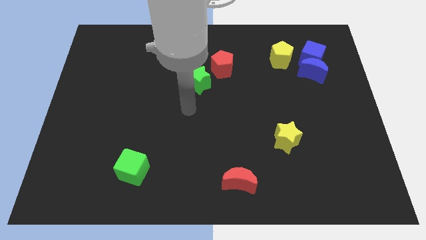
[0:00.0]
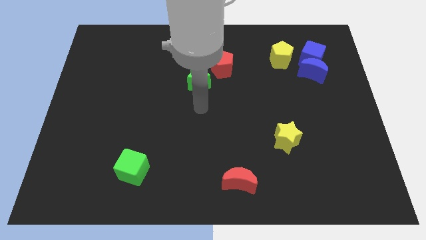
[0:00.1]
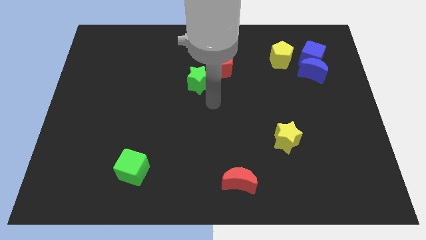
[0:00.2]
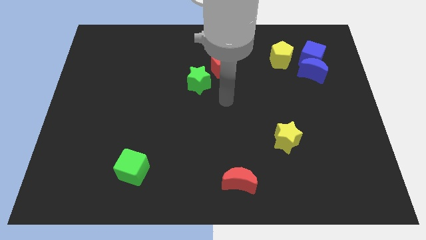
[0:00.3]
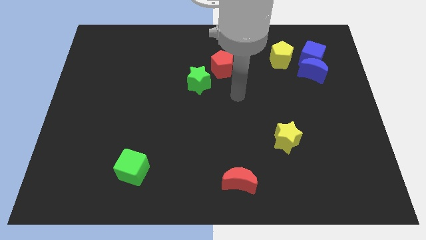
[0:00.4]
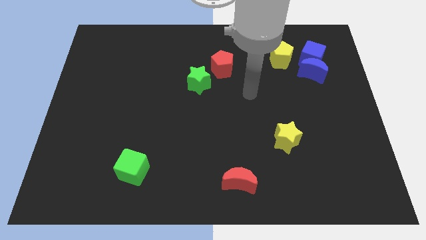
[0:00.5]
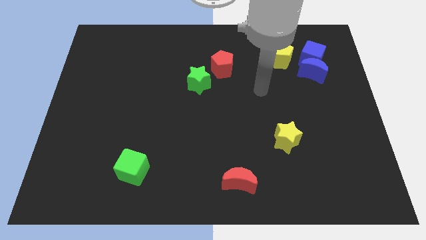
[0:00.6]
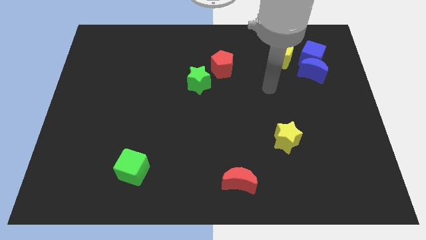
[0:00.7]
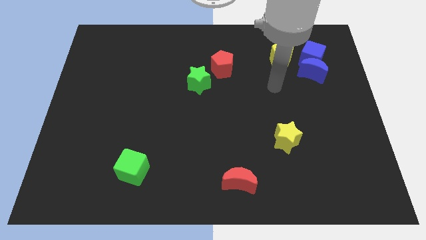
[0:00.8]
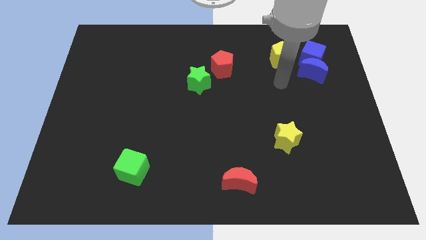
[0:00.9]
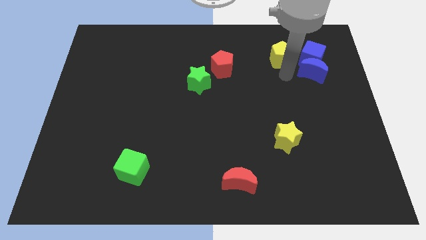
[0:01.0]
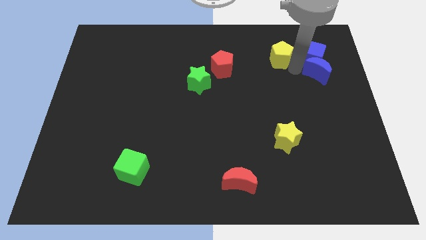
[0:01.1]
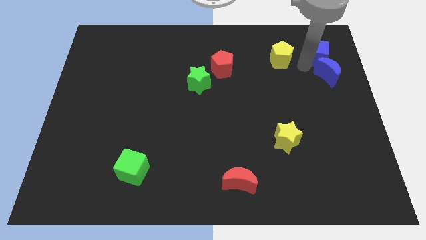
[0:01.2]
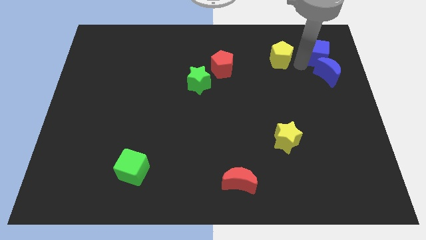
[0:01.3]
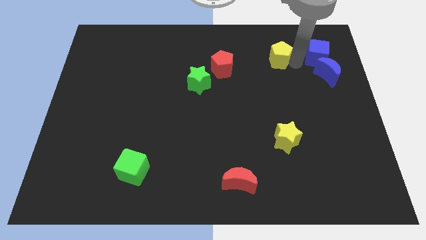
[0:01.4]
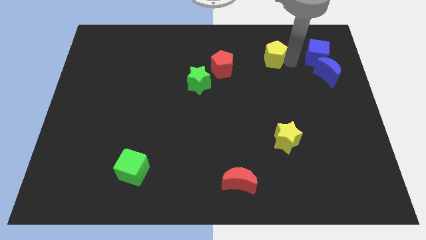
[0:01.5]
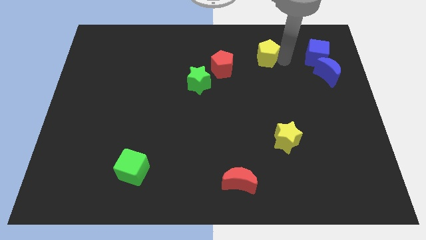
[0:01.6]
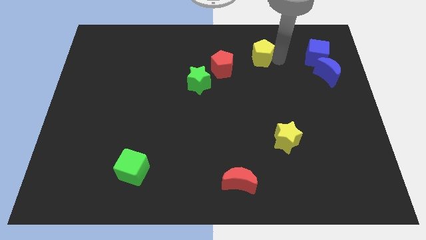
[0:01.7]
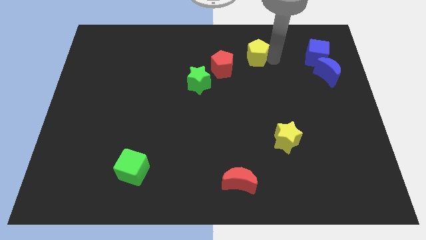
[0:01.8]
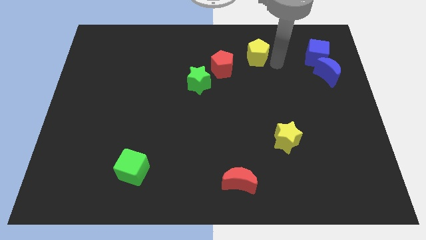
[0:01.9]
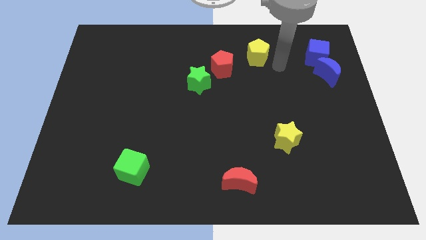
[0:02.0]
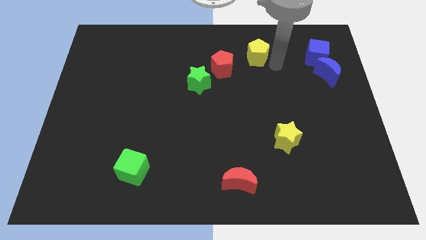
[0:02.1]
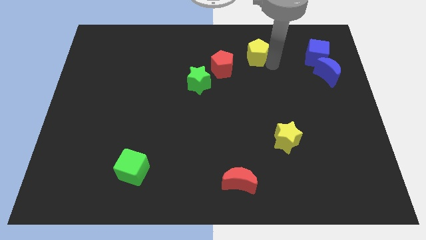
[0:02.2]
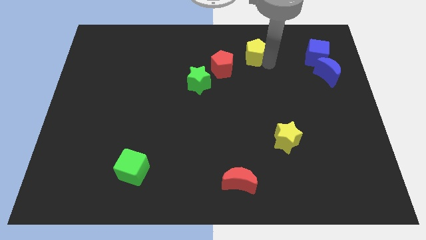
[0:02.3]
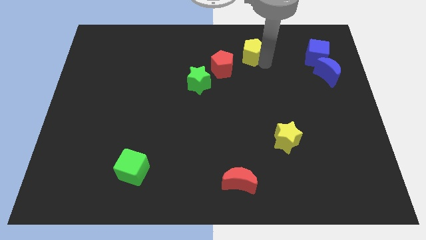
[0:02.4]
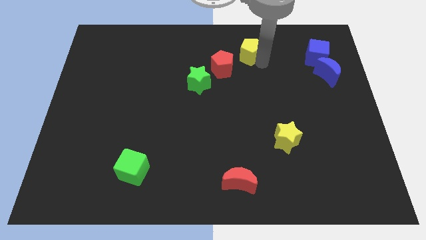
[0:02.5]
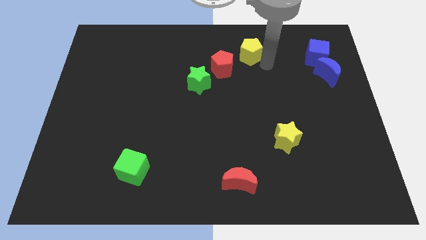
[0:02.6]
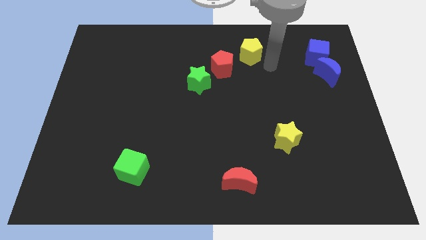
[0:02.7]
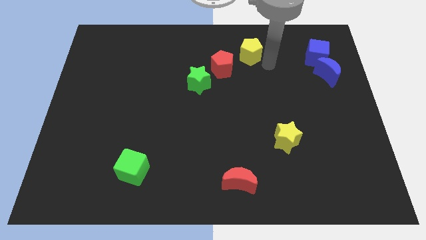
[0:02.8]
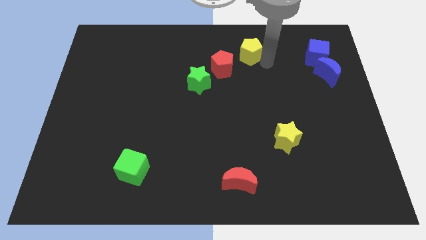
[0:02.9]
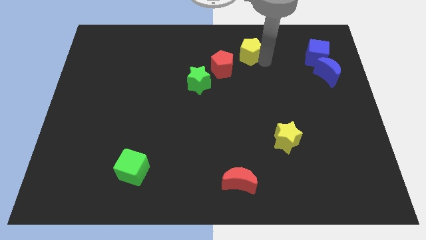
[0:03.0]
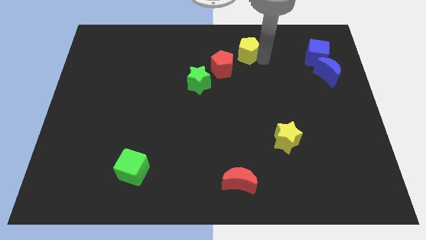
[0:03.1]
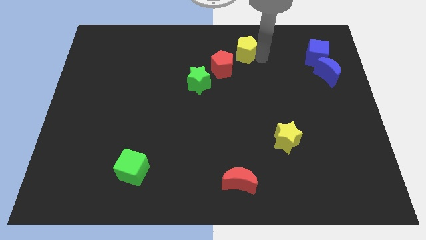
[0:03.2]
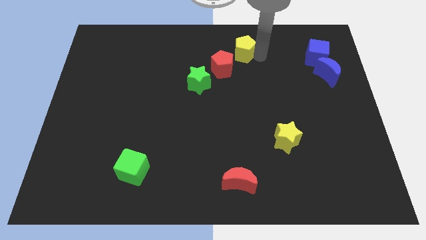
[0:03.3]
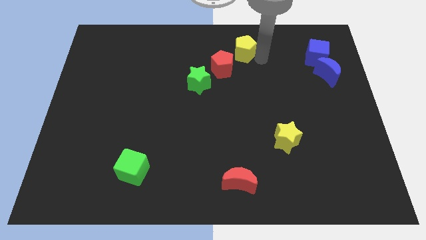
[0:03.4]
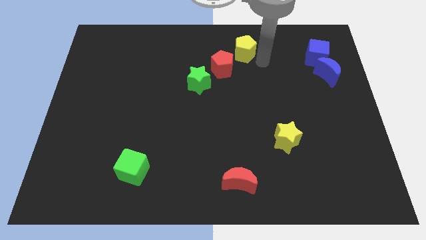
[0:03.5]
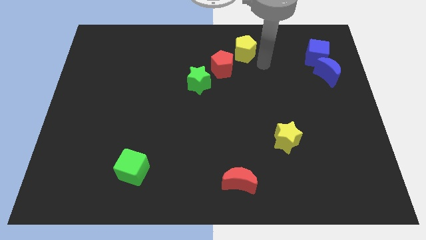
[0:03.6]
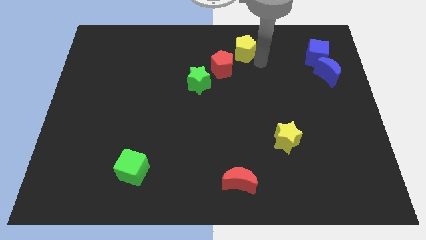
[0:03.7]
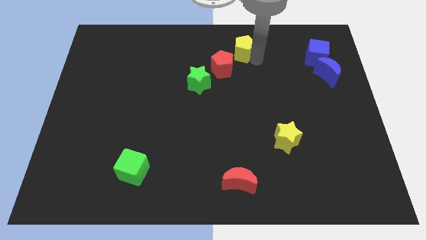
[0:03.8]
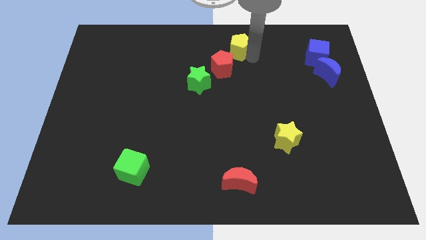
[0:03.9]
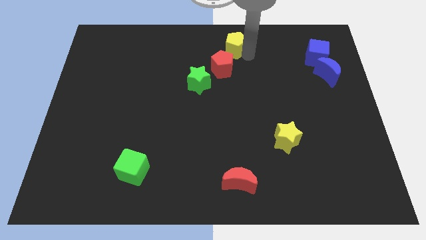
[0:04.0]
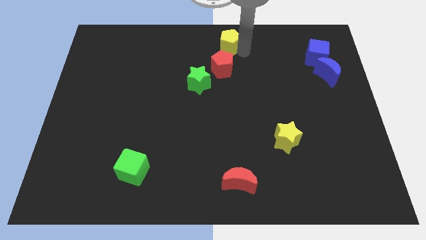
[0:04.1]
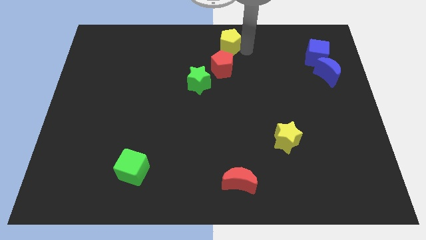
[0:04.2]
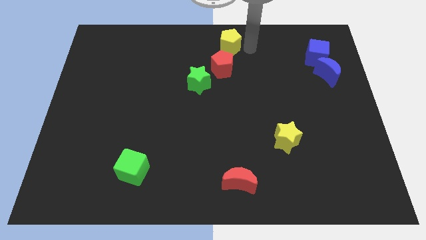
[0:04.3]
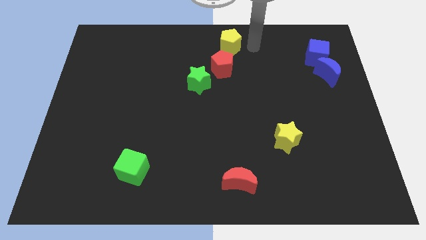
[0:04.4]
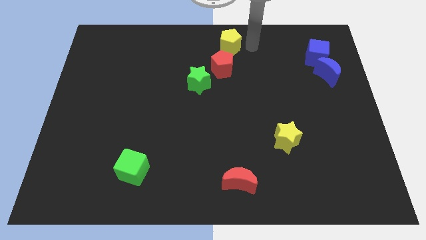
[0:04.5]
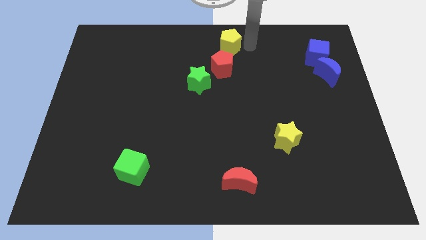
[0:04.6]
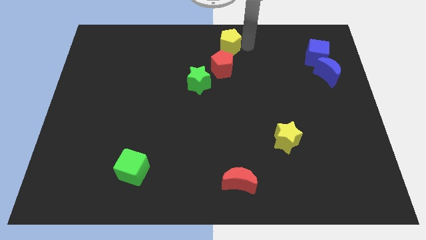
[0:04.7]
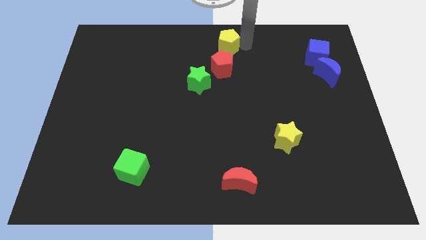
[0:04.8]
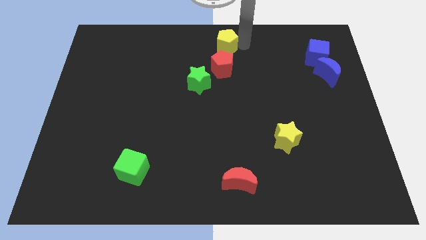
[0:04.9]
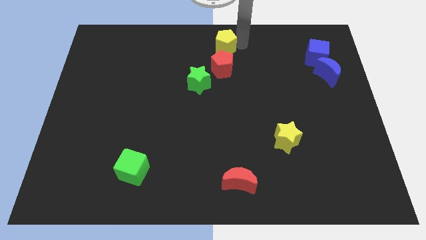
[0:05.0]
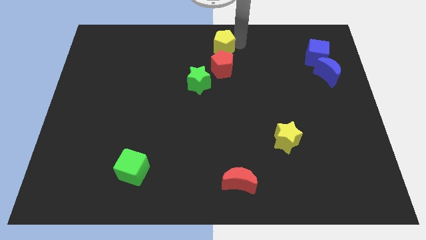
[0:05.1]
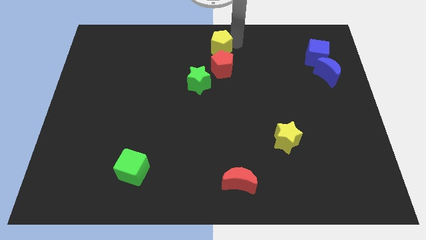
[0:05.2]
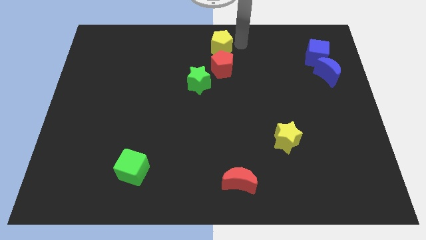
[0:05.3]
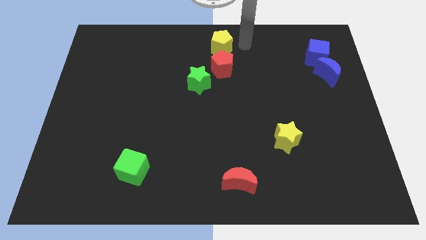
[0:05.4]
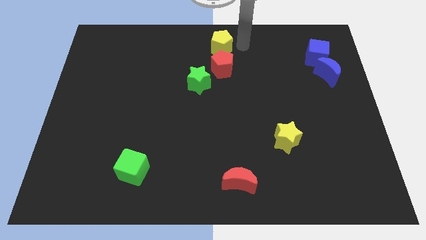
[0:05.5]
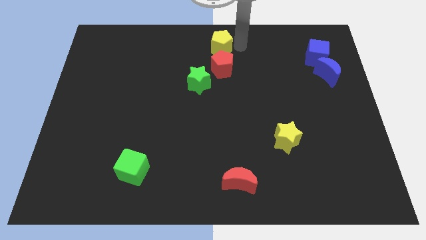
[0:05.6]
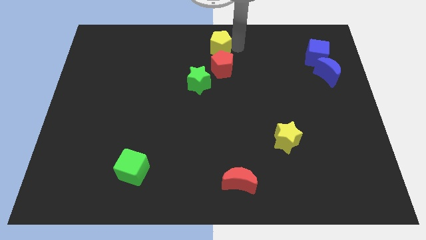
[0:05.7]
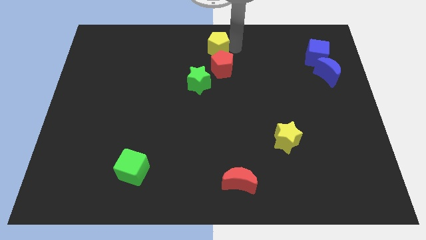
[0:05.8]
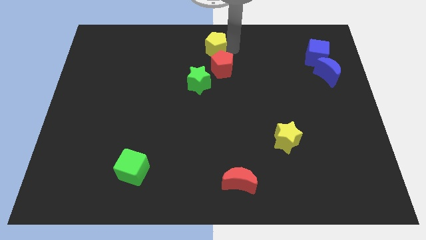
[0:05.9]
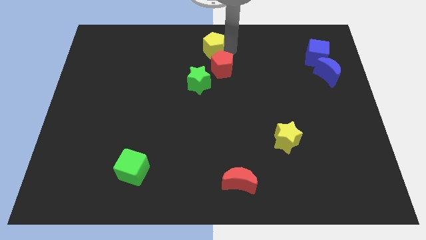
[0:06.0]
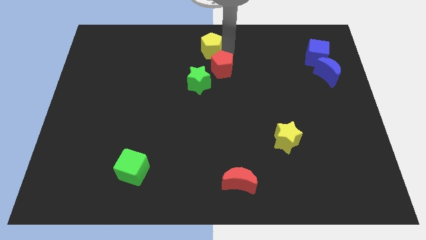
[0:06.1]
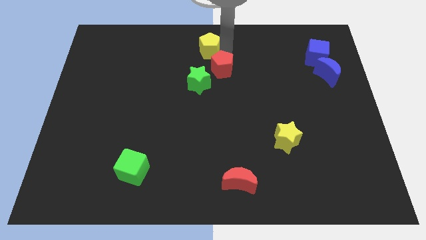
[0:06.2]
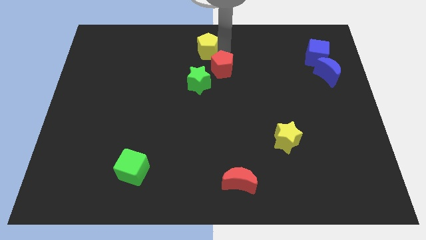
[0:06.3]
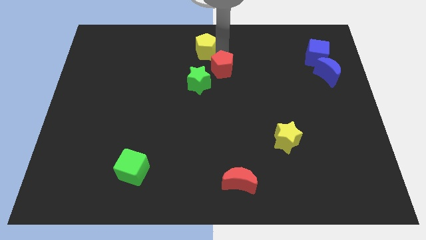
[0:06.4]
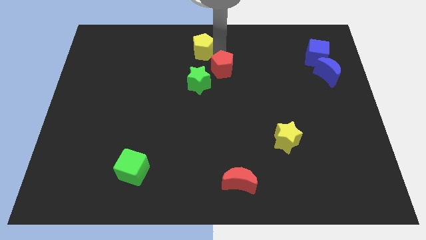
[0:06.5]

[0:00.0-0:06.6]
push the yellow pentagon to the left

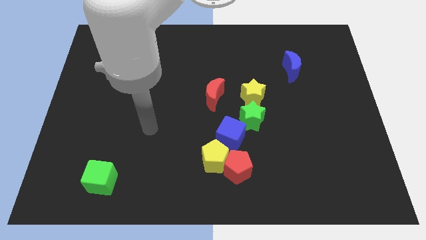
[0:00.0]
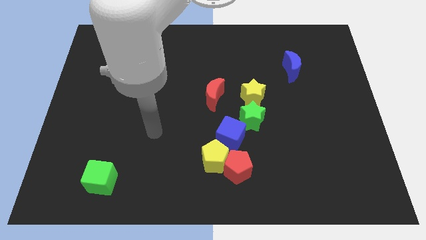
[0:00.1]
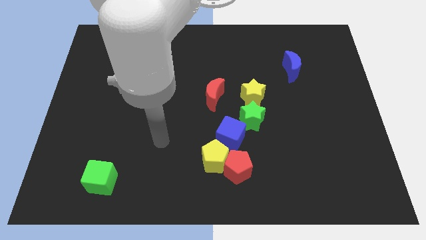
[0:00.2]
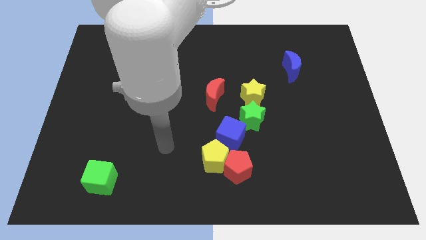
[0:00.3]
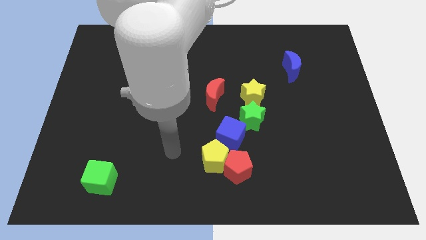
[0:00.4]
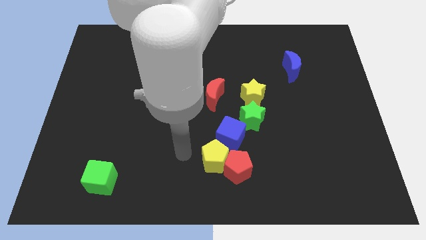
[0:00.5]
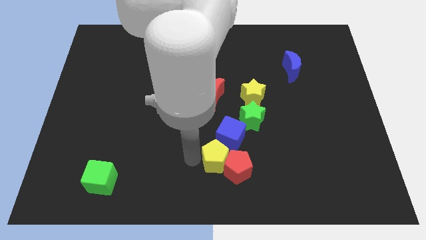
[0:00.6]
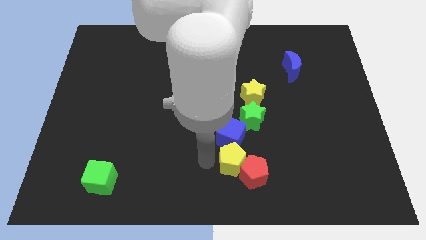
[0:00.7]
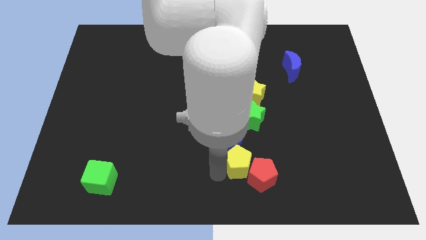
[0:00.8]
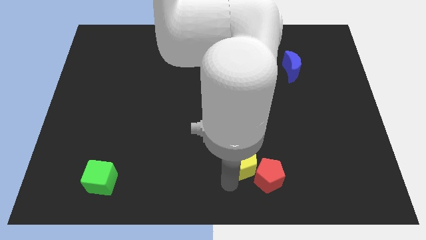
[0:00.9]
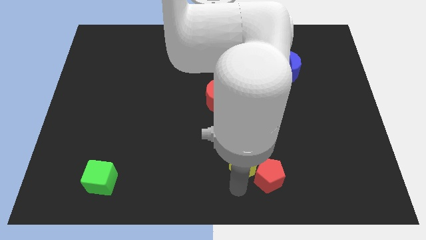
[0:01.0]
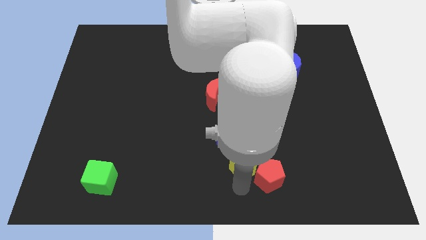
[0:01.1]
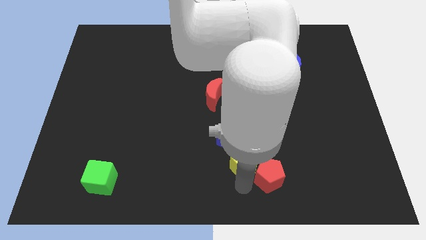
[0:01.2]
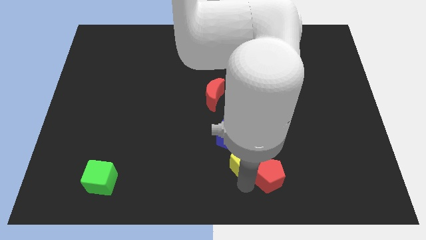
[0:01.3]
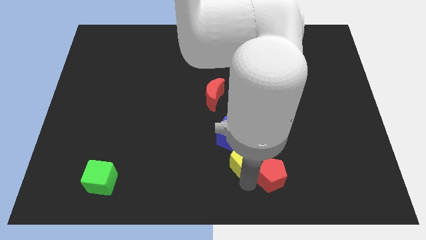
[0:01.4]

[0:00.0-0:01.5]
push the red pentagon slightly to the right
